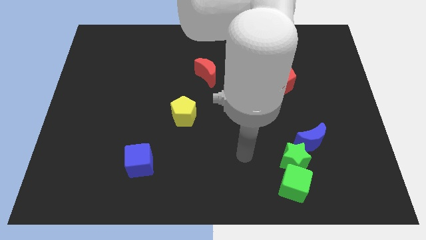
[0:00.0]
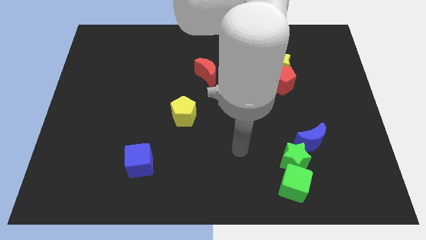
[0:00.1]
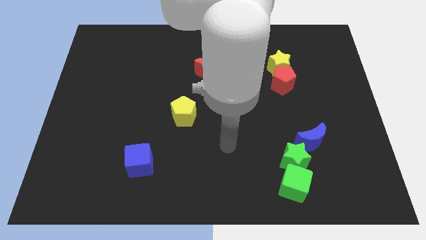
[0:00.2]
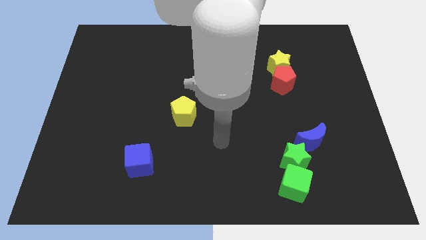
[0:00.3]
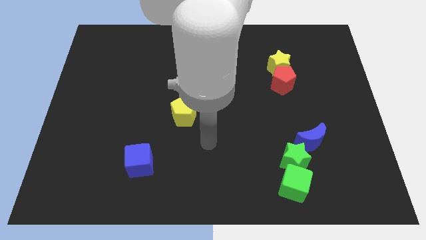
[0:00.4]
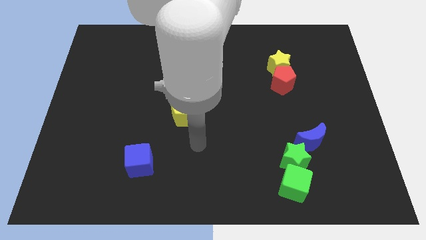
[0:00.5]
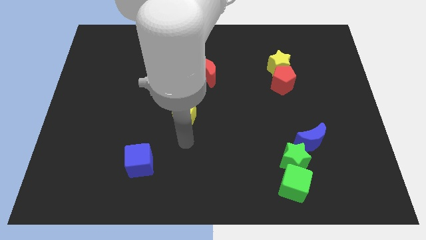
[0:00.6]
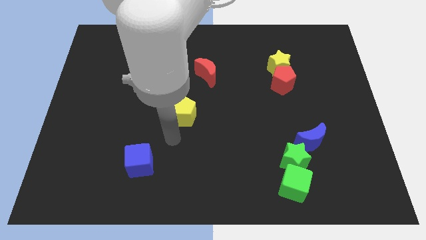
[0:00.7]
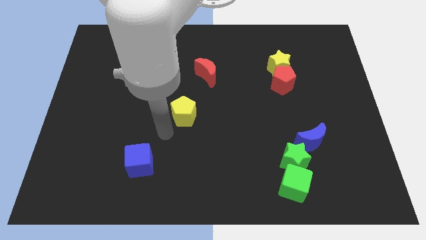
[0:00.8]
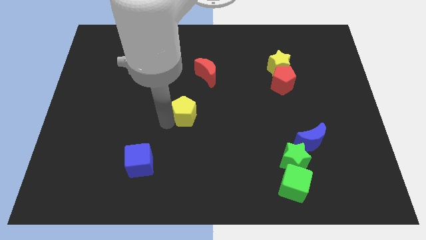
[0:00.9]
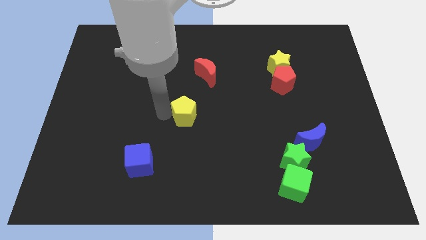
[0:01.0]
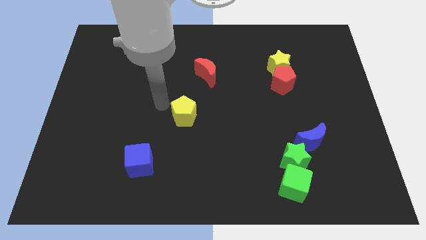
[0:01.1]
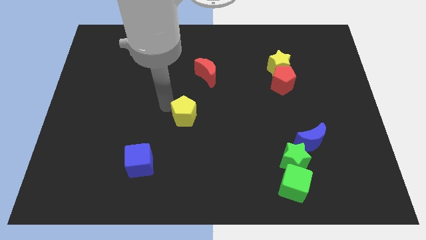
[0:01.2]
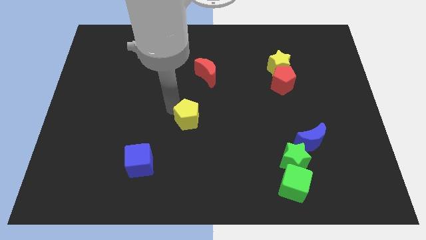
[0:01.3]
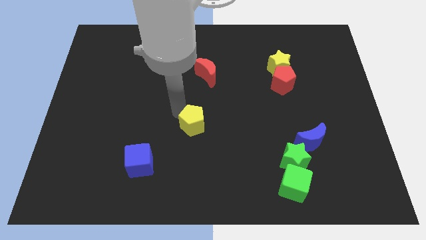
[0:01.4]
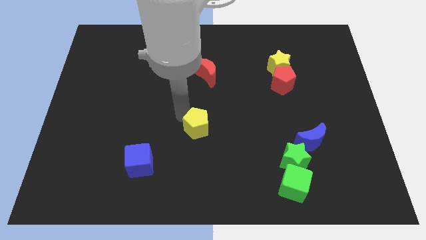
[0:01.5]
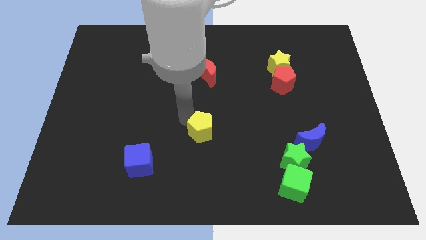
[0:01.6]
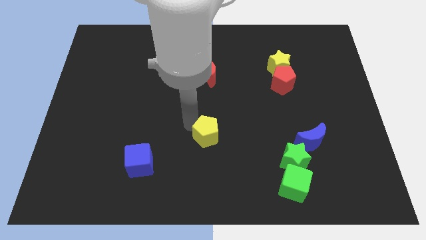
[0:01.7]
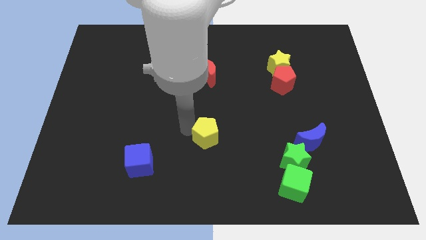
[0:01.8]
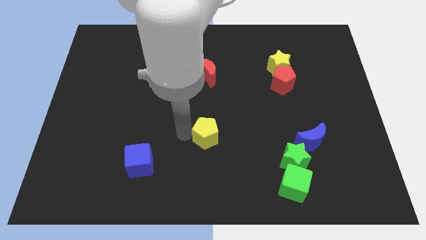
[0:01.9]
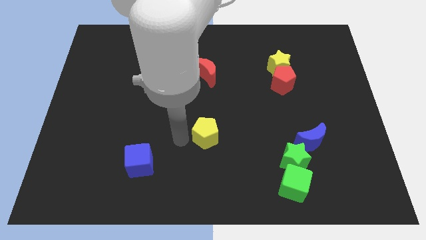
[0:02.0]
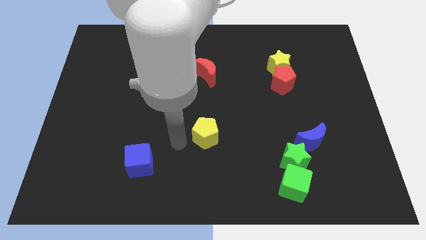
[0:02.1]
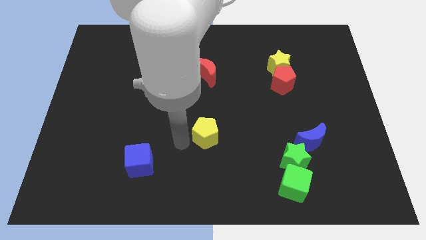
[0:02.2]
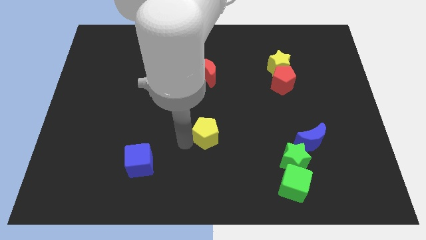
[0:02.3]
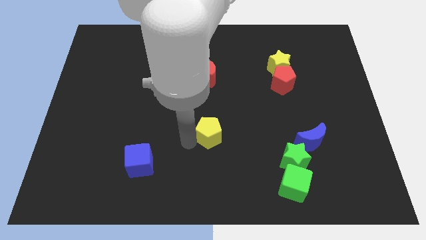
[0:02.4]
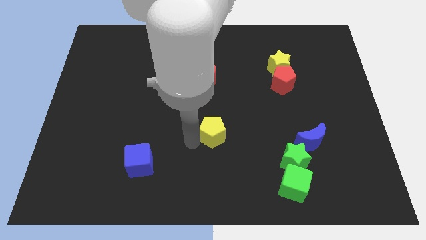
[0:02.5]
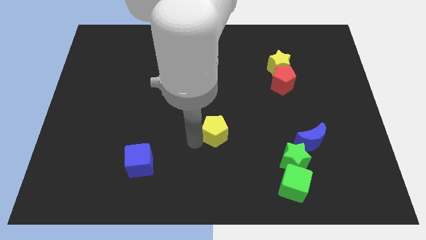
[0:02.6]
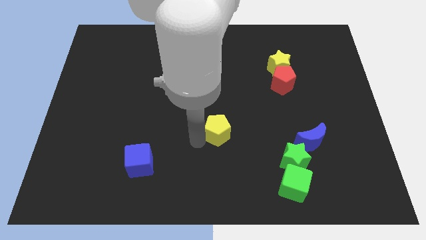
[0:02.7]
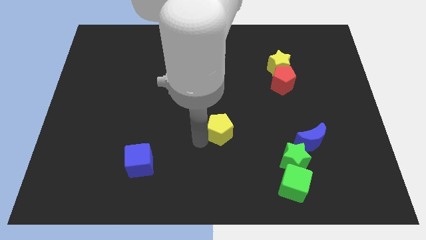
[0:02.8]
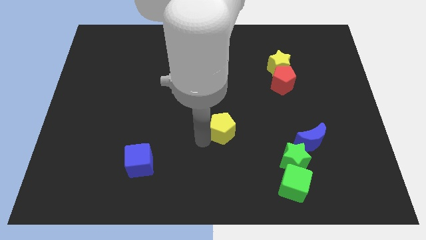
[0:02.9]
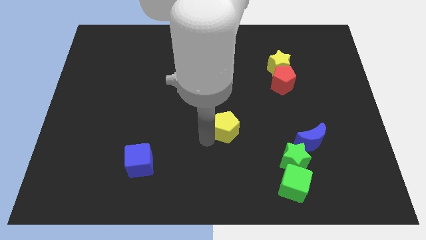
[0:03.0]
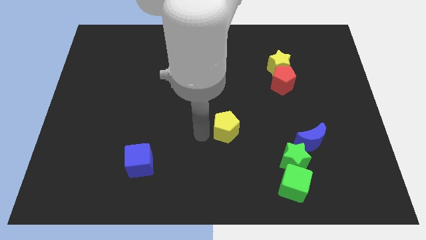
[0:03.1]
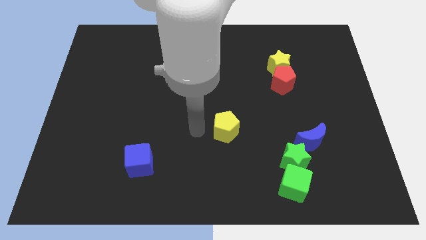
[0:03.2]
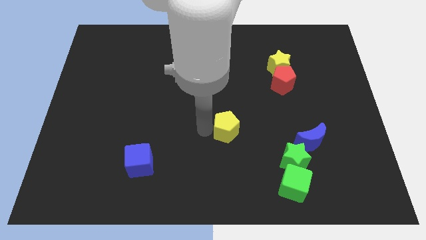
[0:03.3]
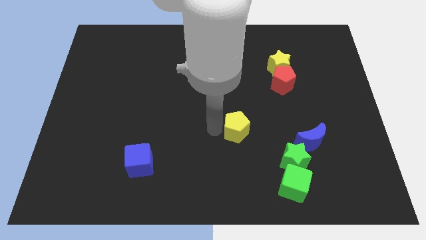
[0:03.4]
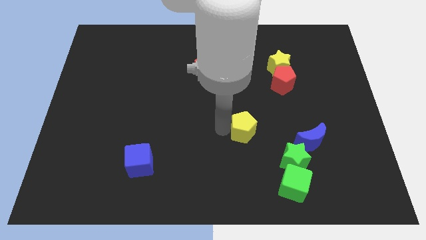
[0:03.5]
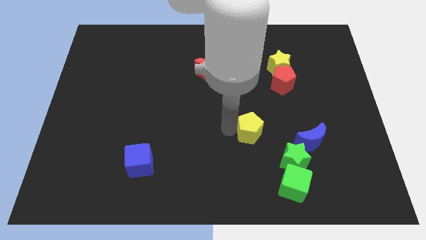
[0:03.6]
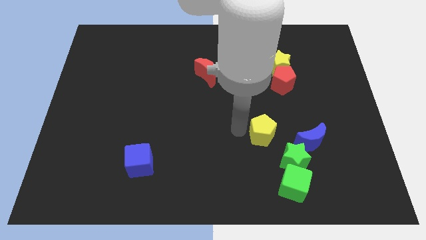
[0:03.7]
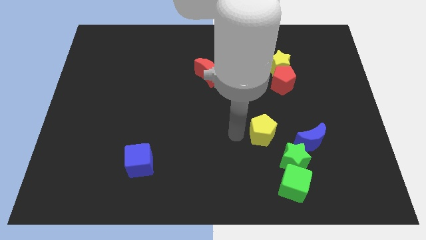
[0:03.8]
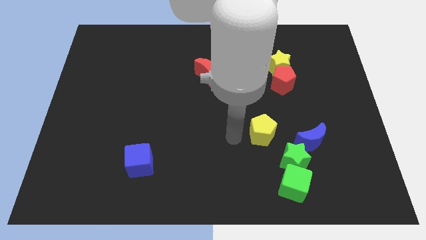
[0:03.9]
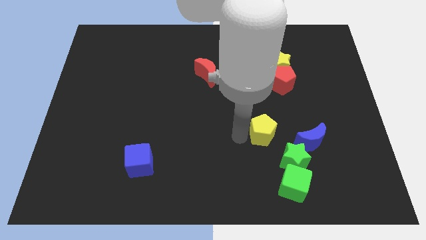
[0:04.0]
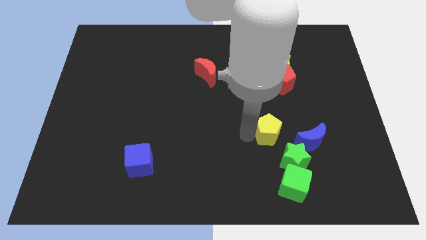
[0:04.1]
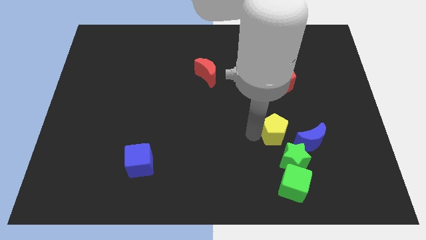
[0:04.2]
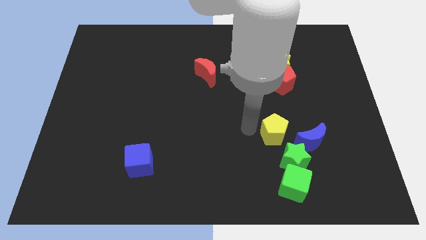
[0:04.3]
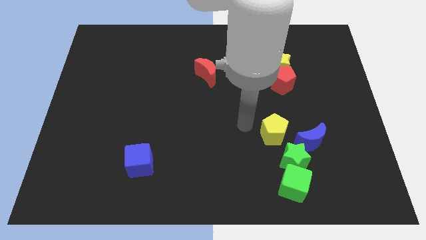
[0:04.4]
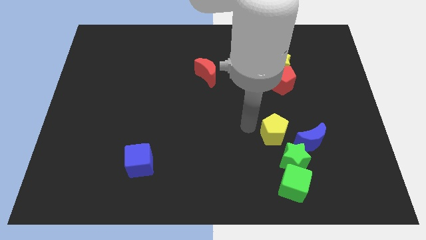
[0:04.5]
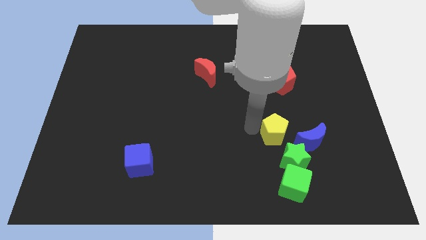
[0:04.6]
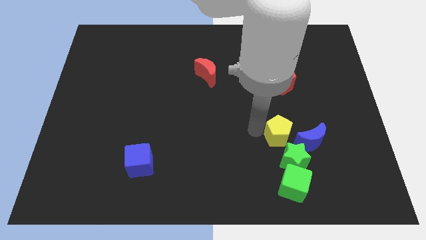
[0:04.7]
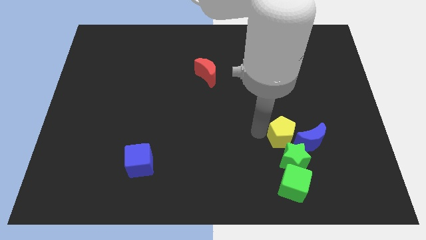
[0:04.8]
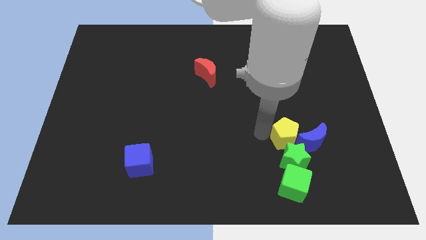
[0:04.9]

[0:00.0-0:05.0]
slide the yellow pentagon next to the blue moon

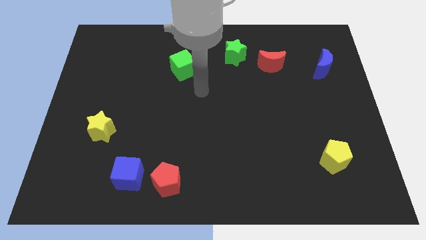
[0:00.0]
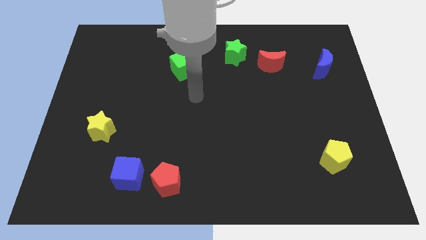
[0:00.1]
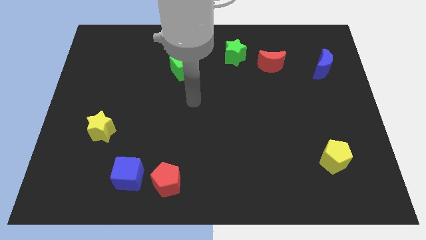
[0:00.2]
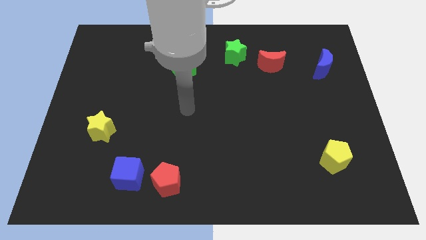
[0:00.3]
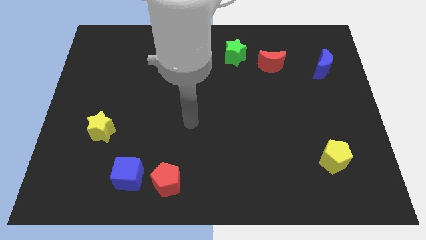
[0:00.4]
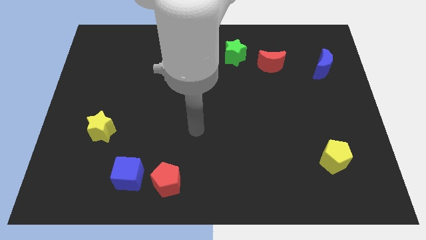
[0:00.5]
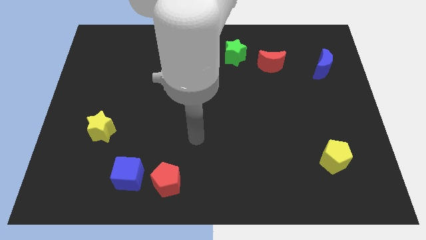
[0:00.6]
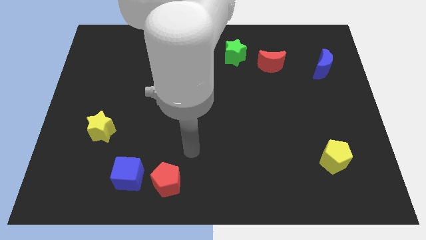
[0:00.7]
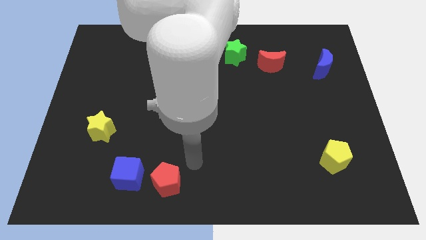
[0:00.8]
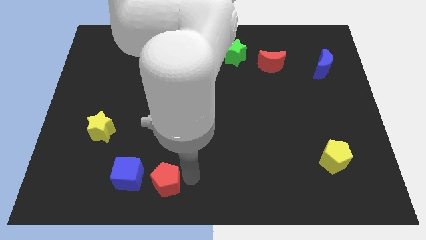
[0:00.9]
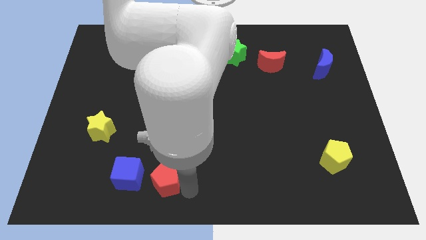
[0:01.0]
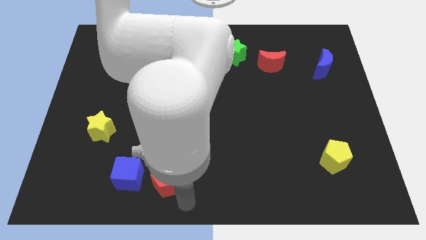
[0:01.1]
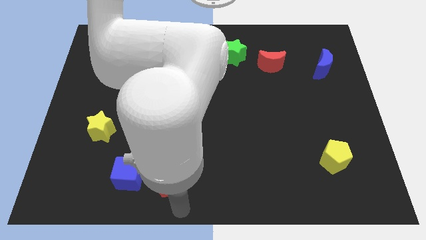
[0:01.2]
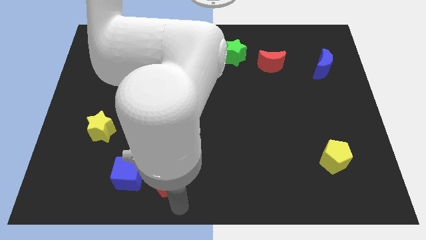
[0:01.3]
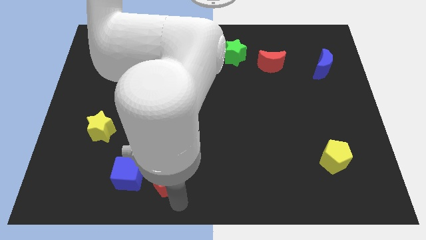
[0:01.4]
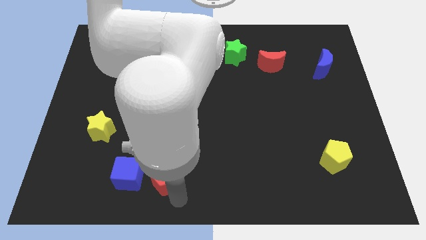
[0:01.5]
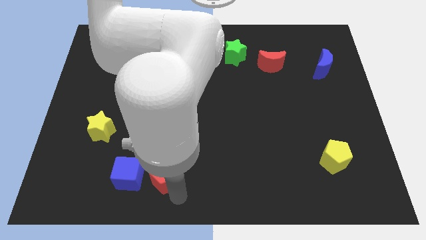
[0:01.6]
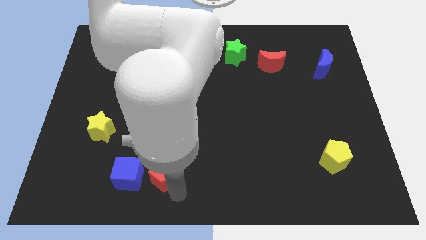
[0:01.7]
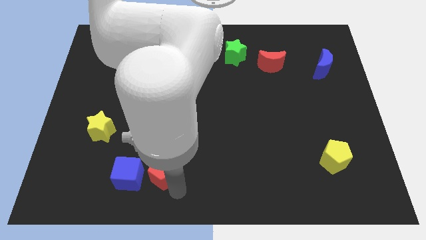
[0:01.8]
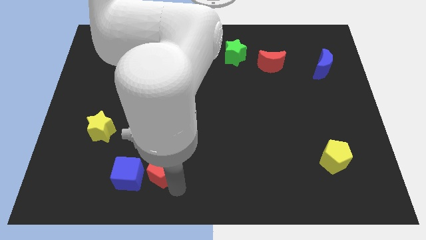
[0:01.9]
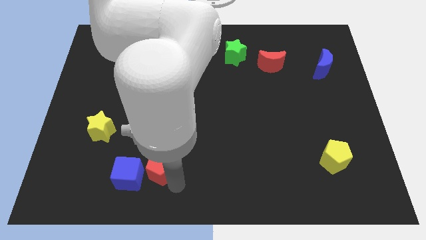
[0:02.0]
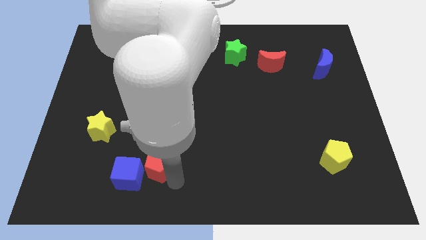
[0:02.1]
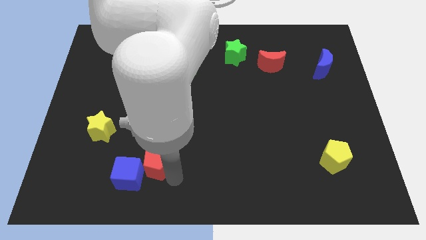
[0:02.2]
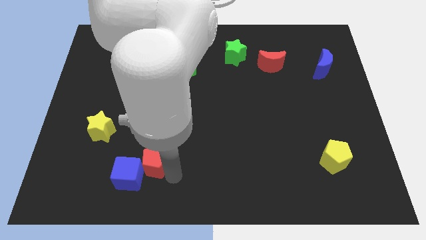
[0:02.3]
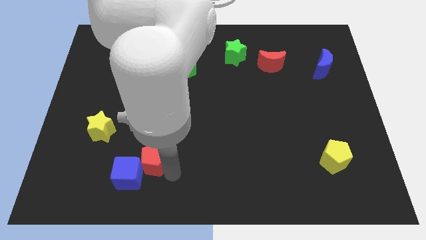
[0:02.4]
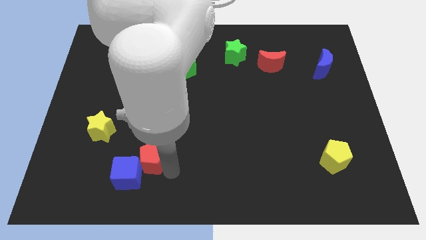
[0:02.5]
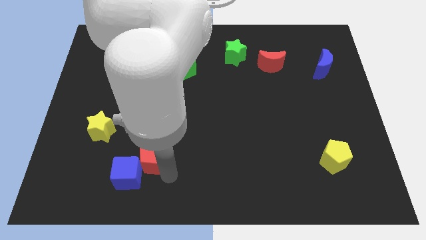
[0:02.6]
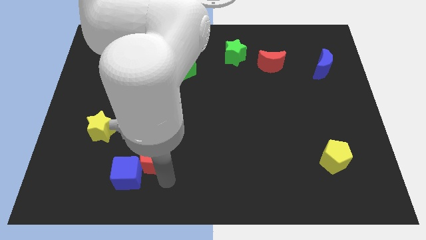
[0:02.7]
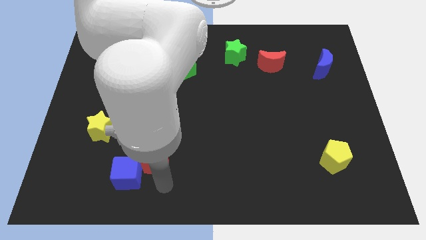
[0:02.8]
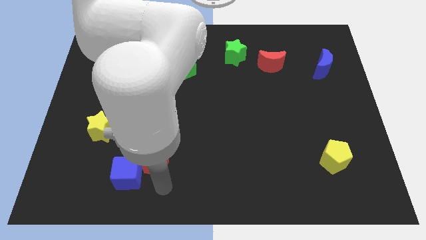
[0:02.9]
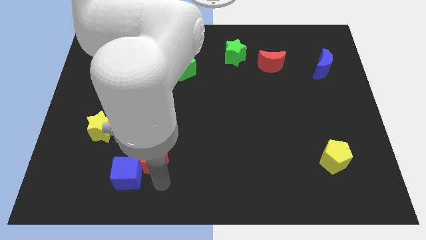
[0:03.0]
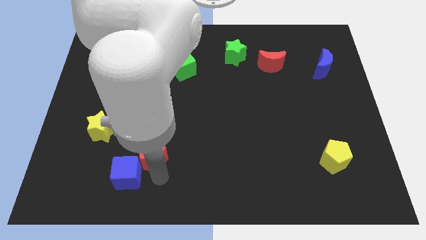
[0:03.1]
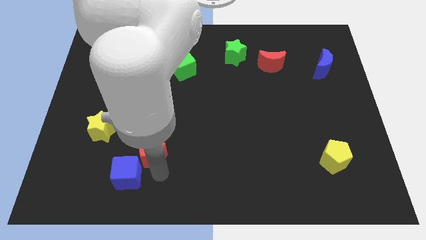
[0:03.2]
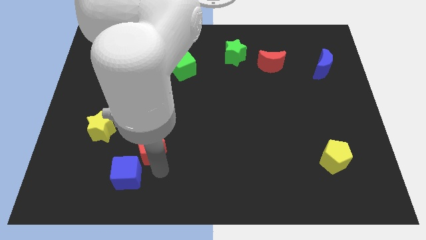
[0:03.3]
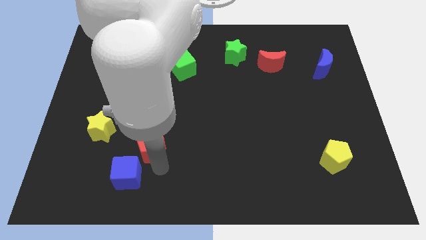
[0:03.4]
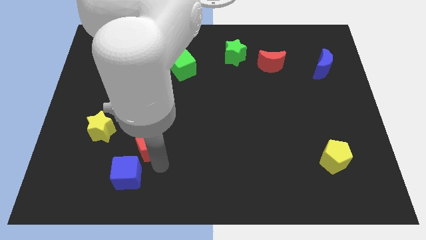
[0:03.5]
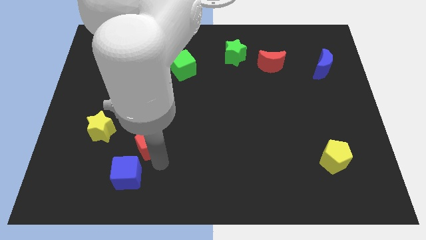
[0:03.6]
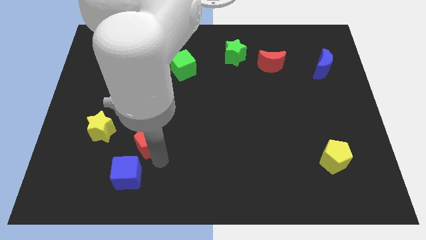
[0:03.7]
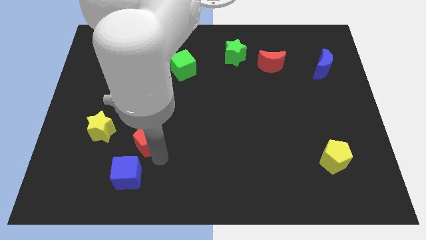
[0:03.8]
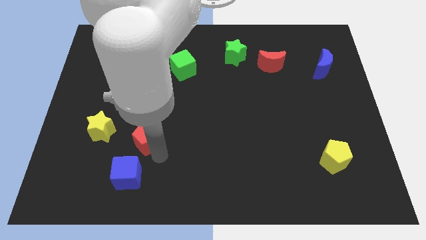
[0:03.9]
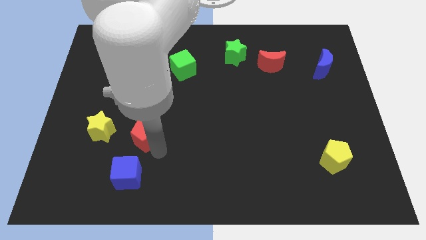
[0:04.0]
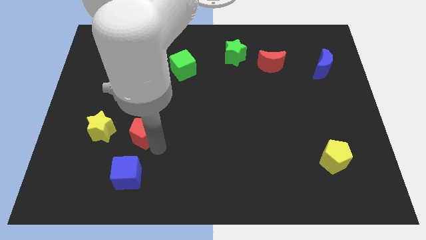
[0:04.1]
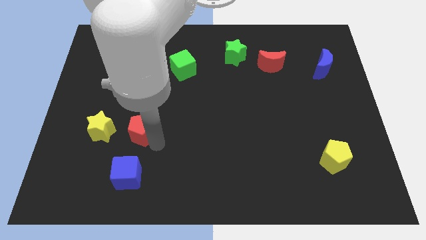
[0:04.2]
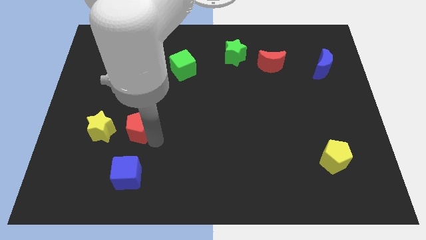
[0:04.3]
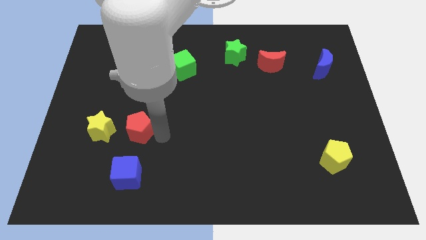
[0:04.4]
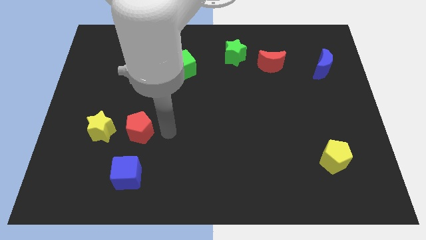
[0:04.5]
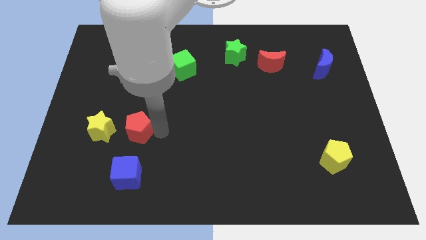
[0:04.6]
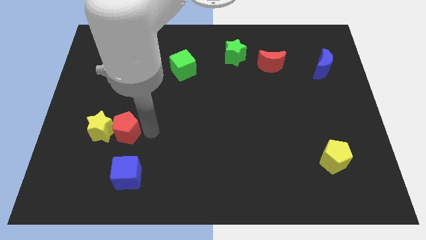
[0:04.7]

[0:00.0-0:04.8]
move the red pentagon close to the yellow star
